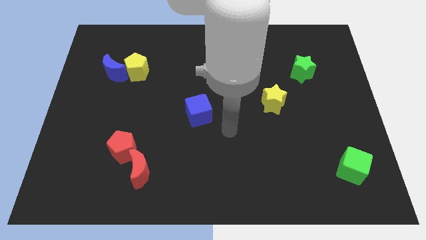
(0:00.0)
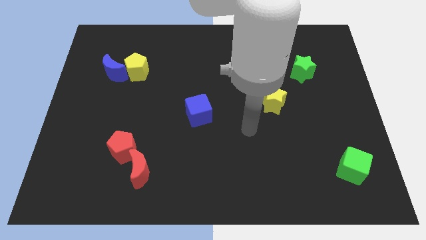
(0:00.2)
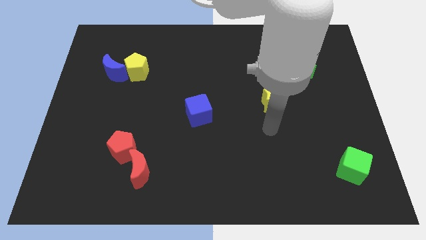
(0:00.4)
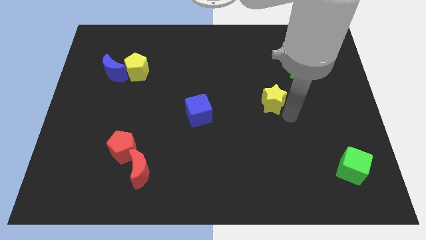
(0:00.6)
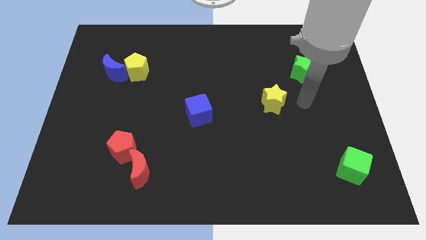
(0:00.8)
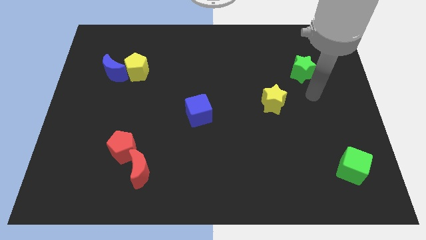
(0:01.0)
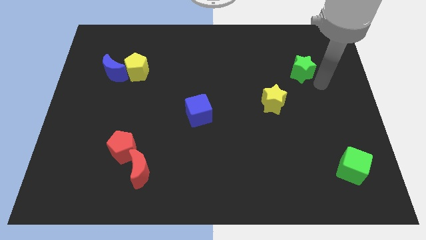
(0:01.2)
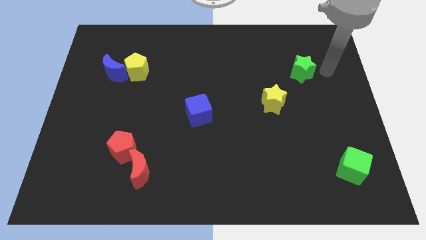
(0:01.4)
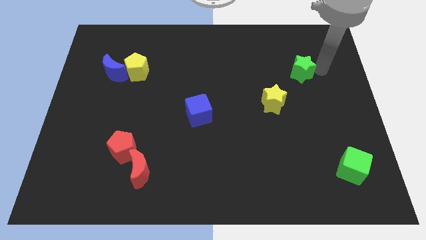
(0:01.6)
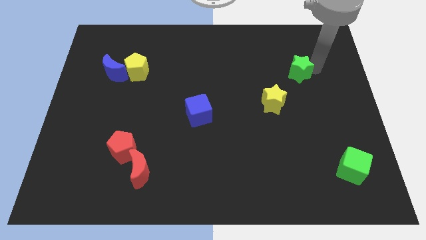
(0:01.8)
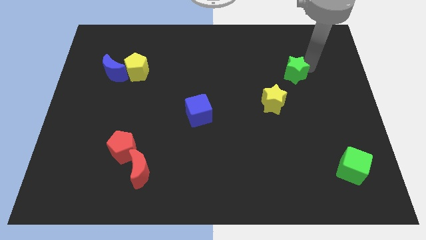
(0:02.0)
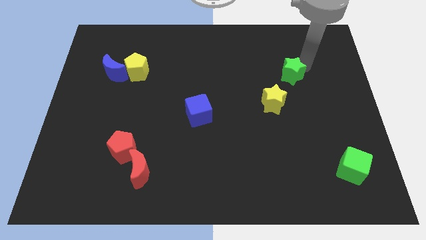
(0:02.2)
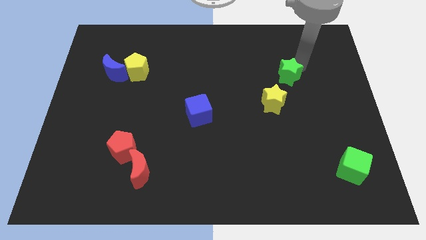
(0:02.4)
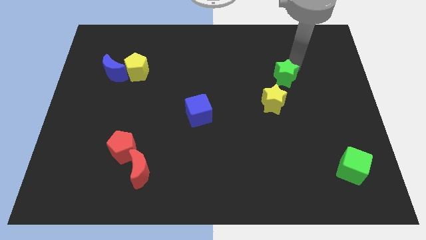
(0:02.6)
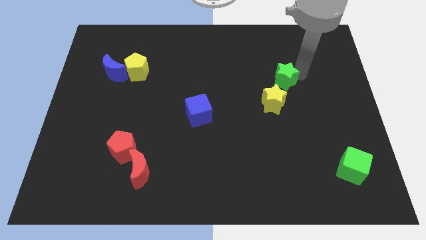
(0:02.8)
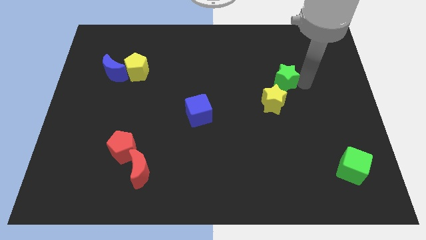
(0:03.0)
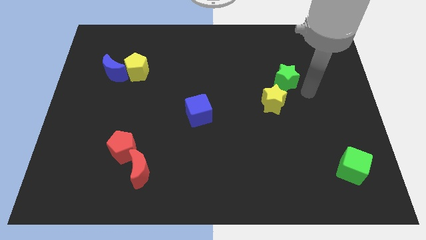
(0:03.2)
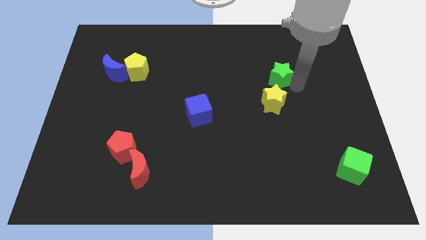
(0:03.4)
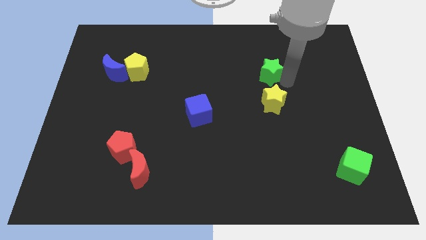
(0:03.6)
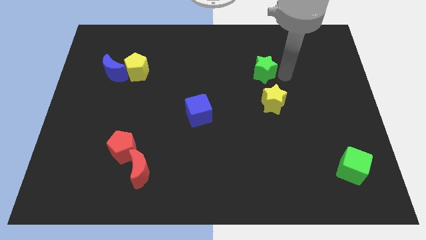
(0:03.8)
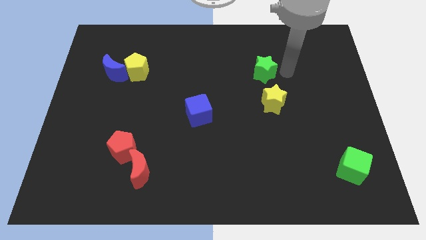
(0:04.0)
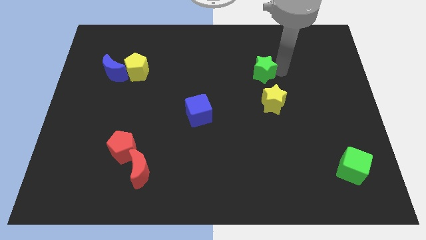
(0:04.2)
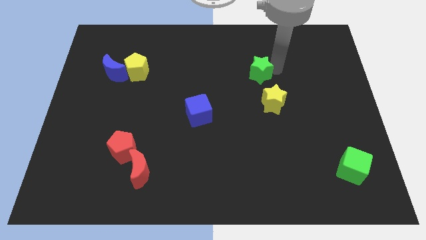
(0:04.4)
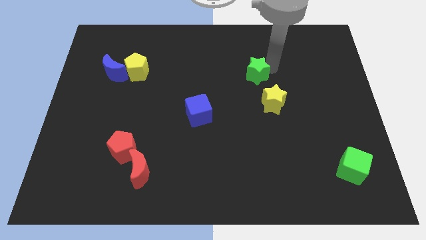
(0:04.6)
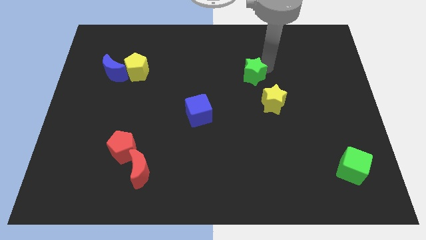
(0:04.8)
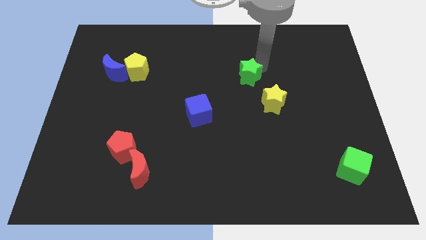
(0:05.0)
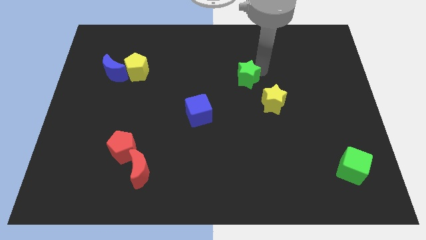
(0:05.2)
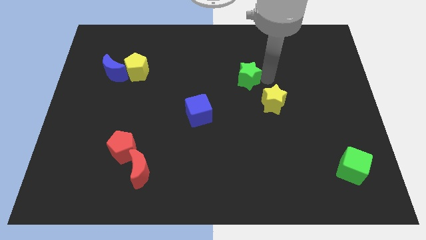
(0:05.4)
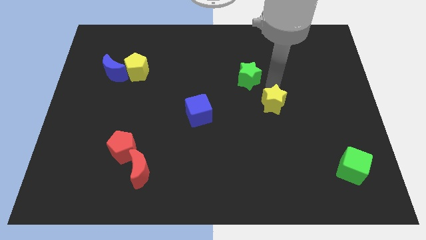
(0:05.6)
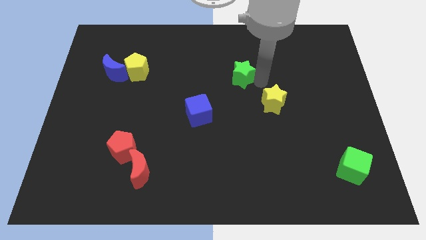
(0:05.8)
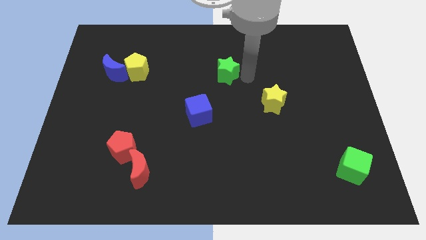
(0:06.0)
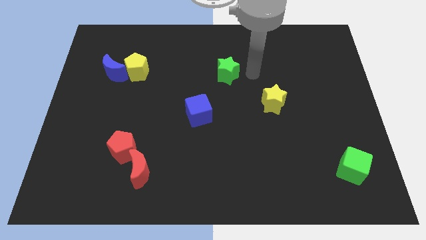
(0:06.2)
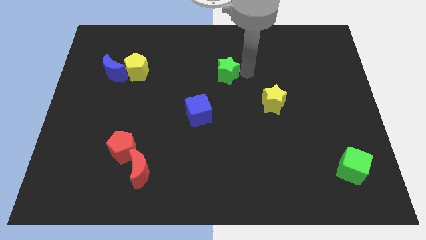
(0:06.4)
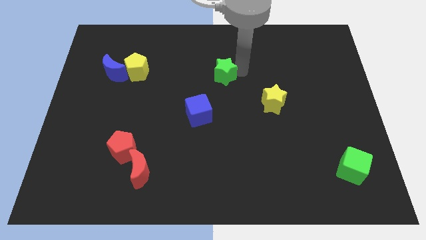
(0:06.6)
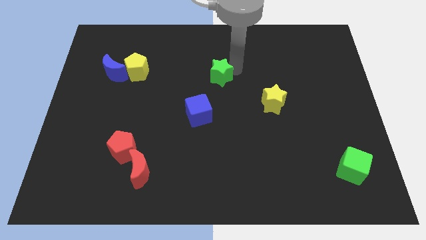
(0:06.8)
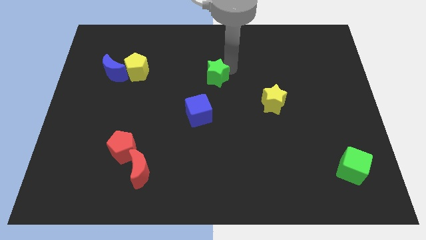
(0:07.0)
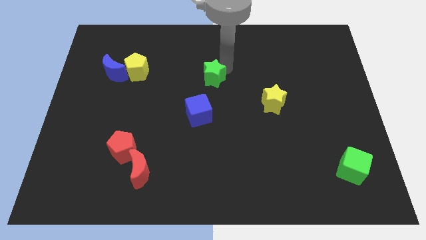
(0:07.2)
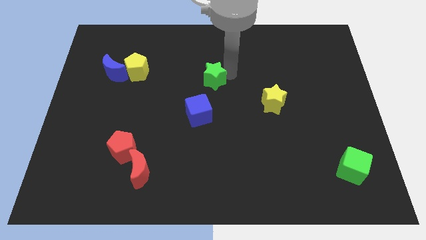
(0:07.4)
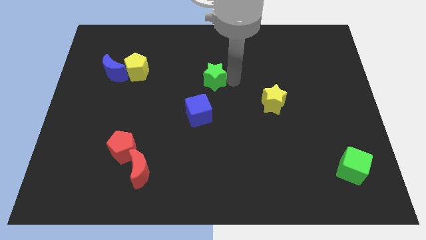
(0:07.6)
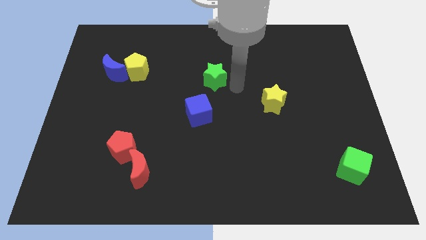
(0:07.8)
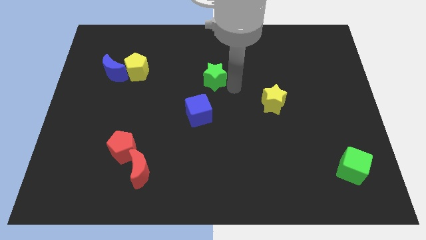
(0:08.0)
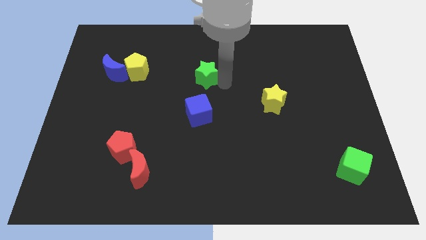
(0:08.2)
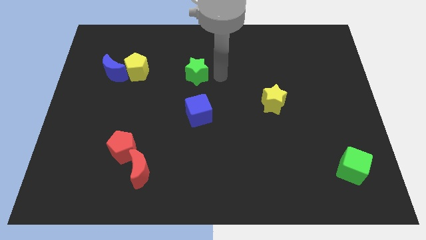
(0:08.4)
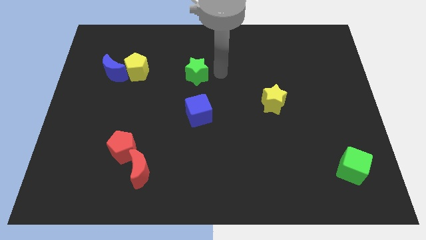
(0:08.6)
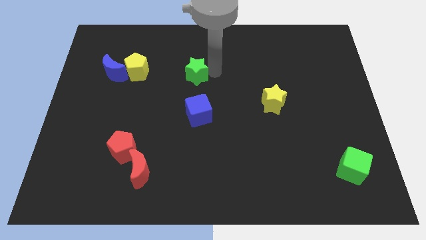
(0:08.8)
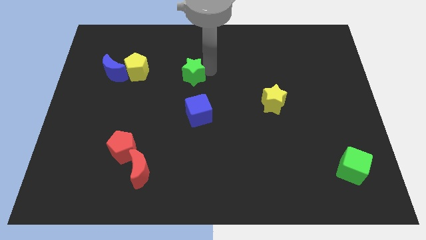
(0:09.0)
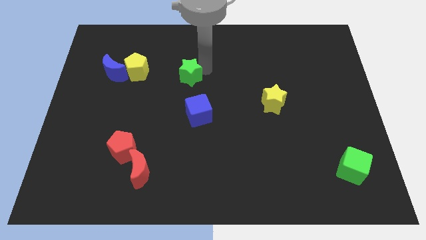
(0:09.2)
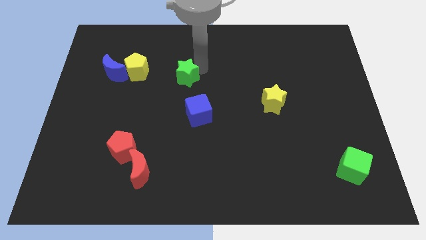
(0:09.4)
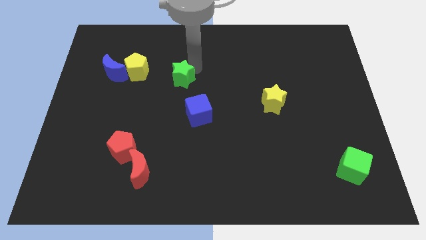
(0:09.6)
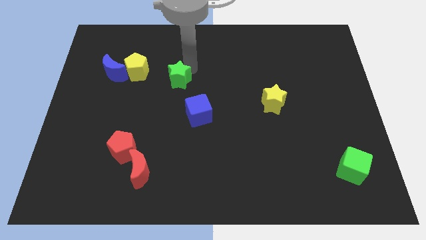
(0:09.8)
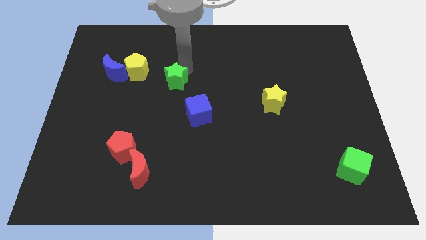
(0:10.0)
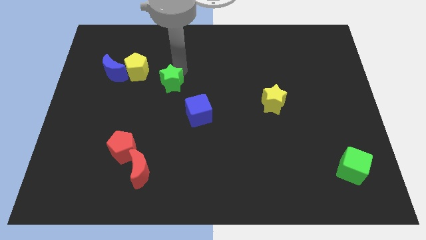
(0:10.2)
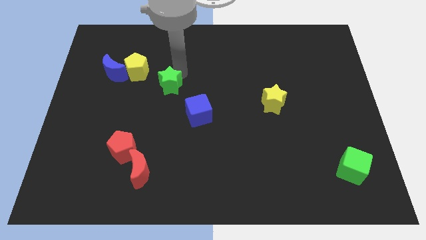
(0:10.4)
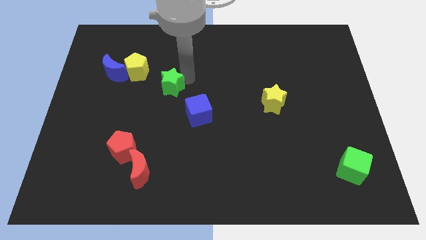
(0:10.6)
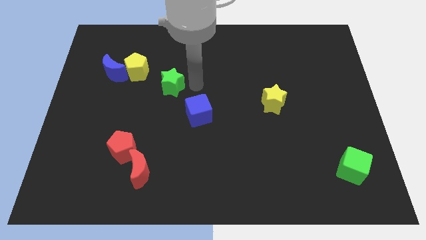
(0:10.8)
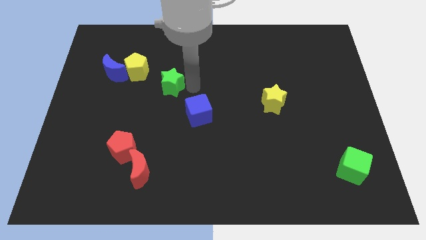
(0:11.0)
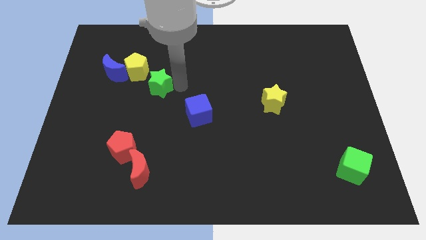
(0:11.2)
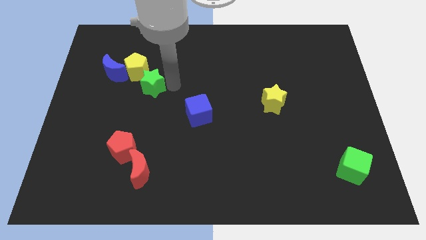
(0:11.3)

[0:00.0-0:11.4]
slide the green star diagonally down and to the right of the blue moon
